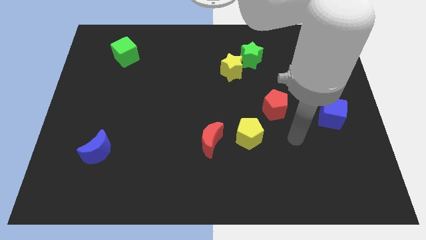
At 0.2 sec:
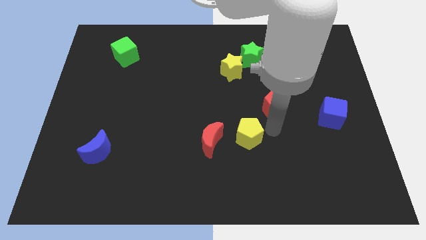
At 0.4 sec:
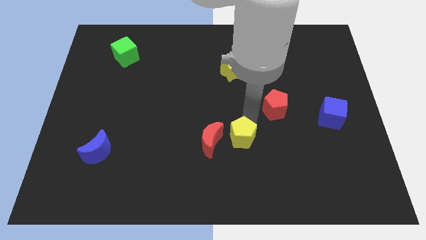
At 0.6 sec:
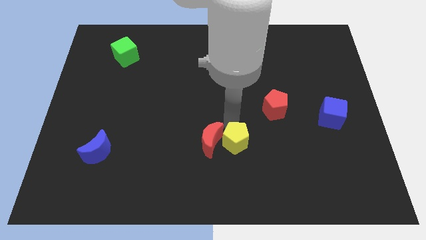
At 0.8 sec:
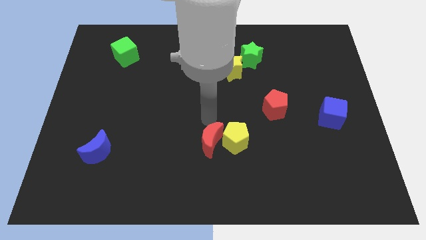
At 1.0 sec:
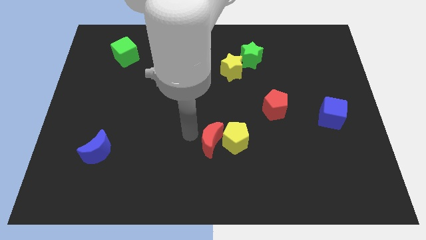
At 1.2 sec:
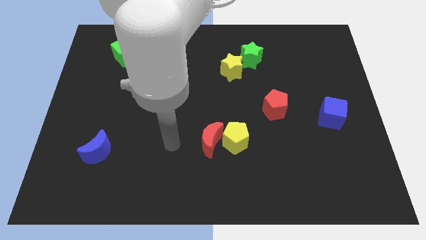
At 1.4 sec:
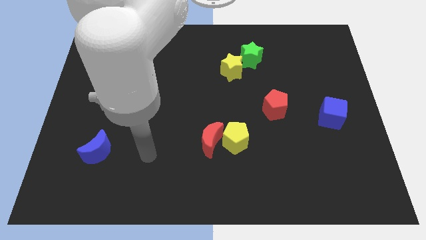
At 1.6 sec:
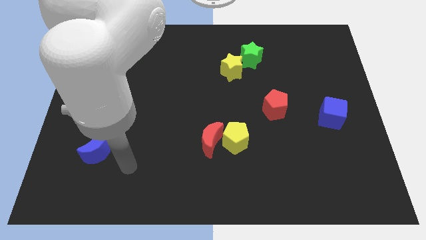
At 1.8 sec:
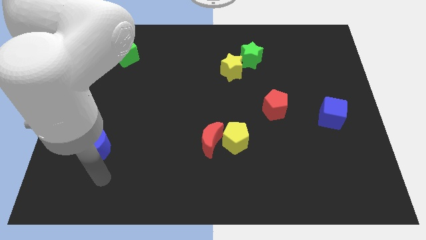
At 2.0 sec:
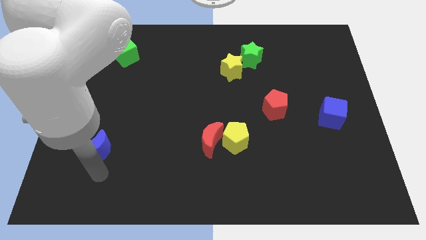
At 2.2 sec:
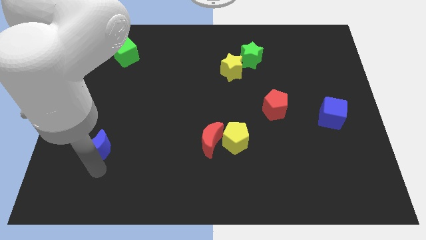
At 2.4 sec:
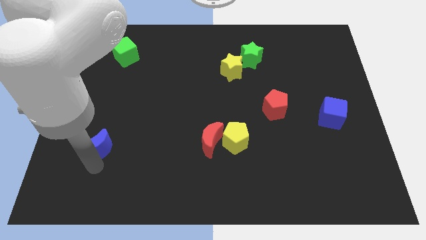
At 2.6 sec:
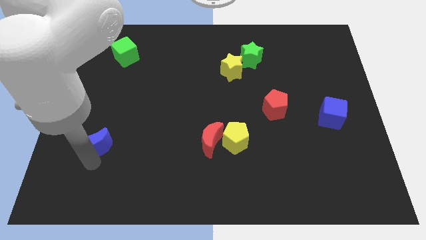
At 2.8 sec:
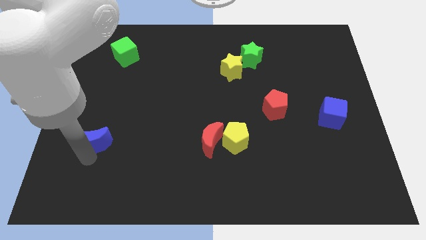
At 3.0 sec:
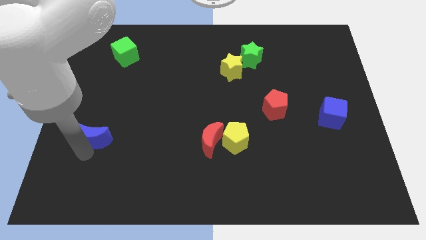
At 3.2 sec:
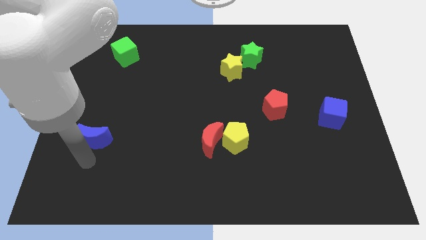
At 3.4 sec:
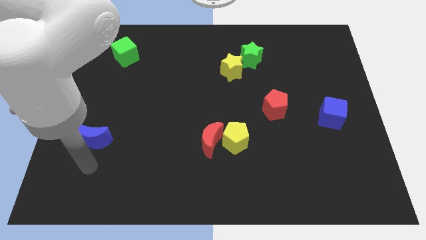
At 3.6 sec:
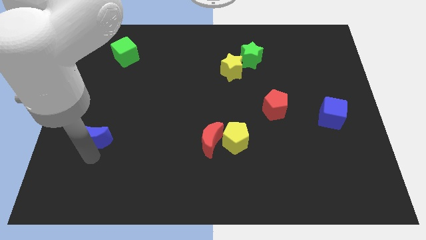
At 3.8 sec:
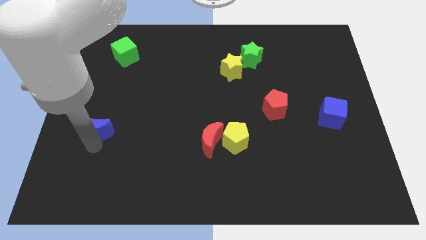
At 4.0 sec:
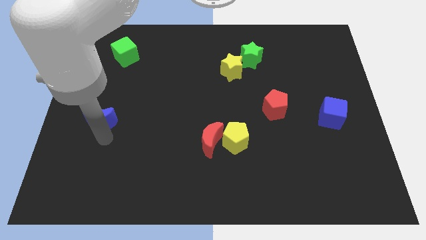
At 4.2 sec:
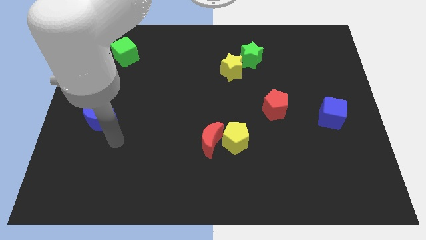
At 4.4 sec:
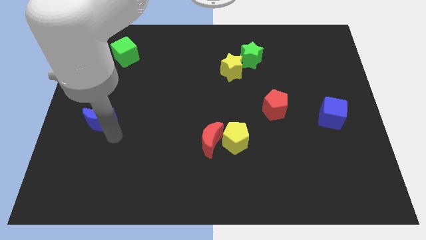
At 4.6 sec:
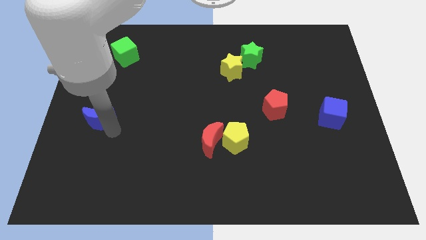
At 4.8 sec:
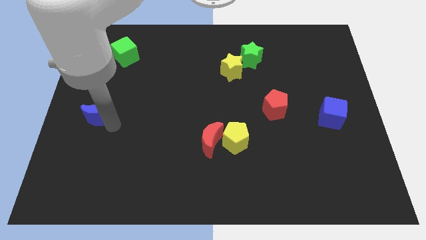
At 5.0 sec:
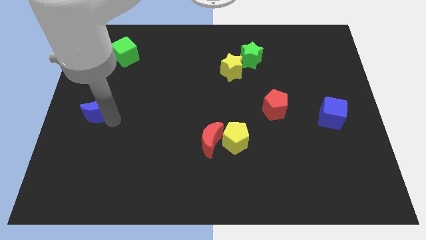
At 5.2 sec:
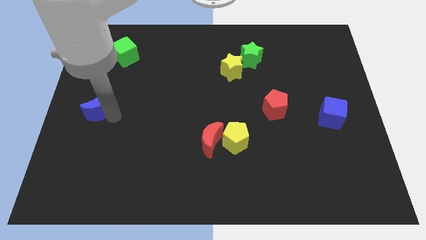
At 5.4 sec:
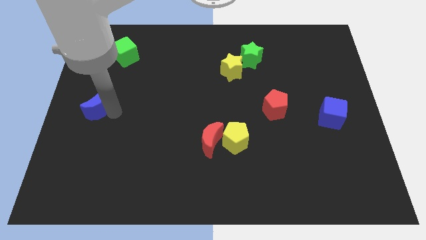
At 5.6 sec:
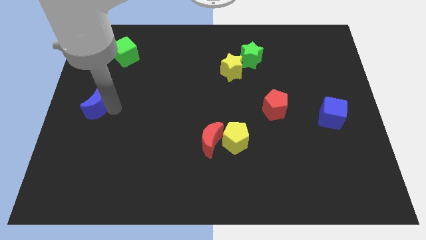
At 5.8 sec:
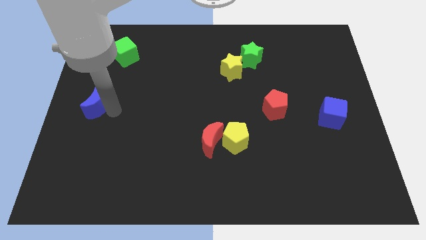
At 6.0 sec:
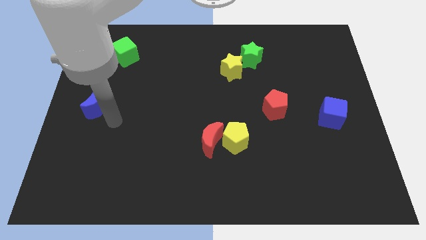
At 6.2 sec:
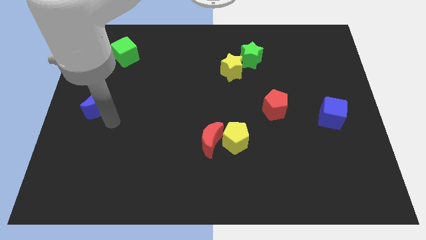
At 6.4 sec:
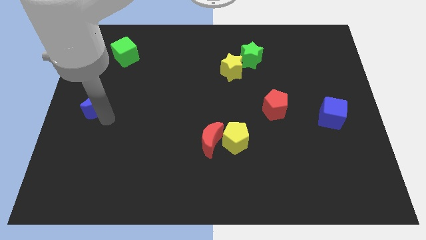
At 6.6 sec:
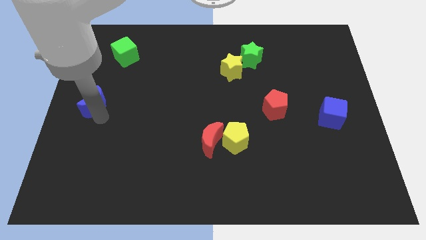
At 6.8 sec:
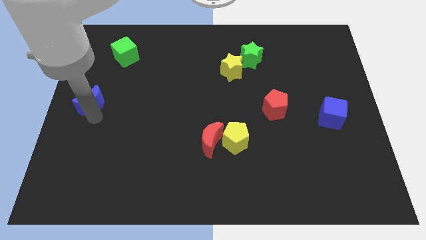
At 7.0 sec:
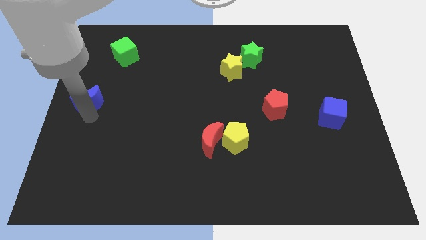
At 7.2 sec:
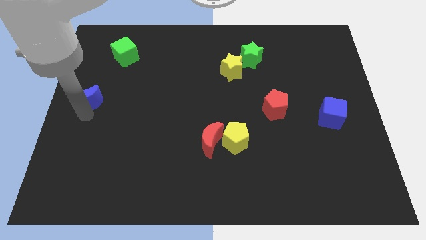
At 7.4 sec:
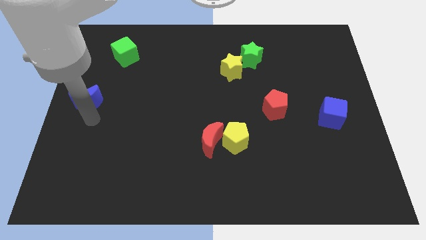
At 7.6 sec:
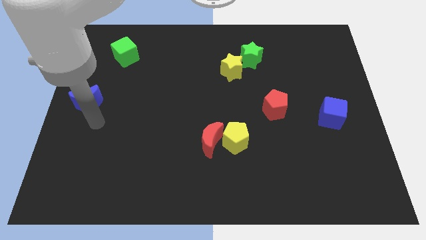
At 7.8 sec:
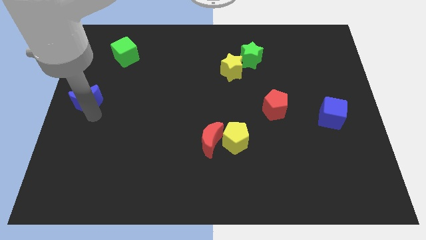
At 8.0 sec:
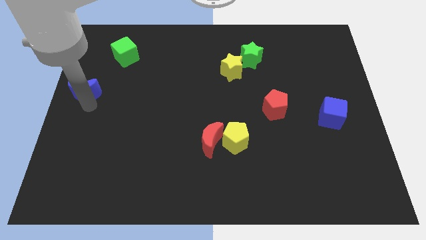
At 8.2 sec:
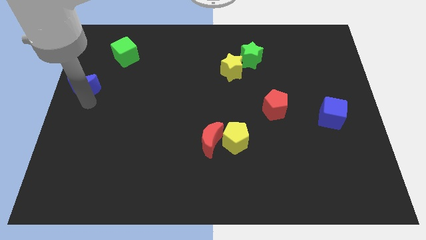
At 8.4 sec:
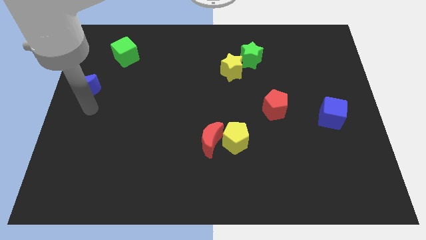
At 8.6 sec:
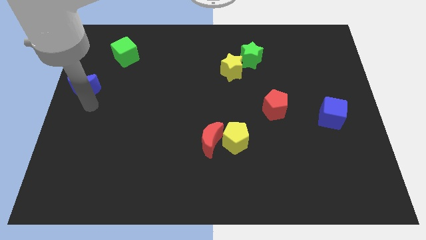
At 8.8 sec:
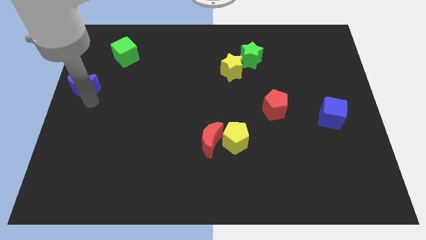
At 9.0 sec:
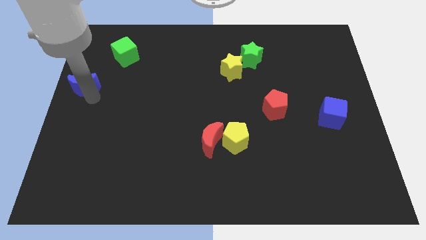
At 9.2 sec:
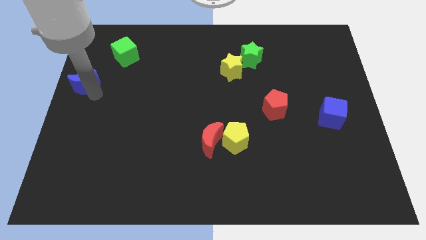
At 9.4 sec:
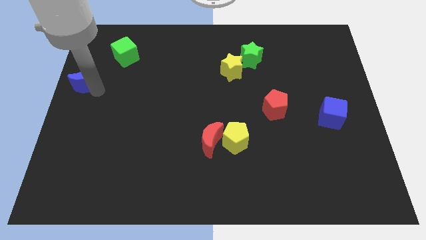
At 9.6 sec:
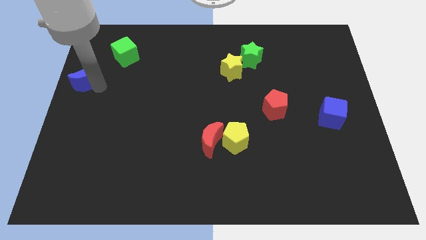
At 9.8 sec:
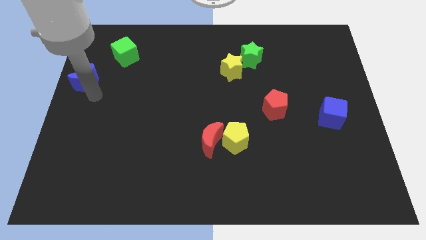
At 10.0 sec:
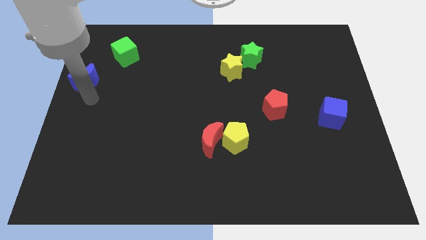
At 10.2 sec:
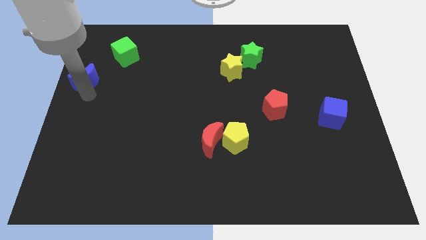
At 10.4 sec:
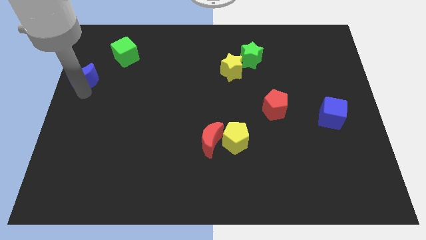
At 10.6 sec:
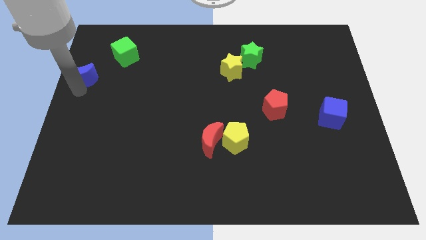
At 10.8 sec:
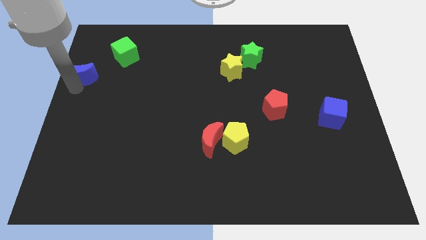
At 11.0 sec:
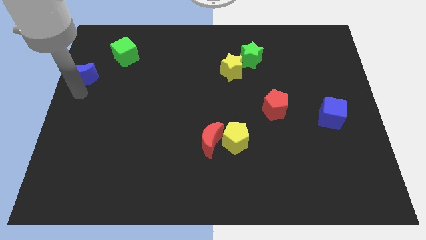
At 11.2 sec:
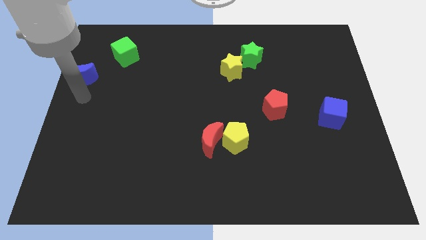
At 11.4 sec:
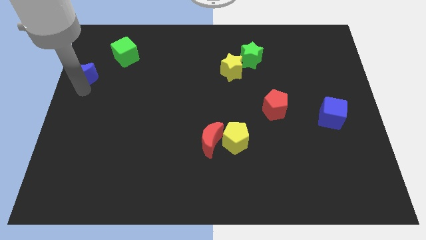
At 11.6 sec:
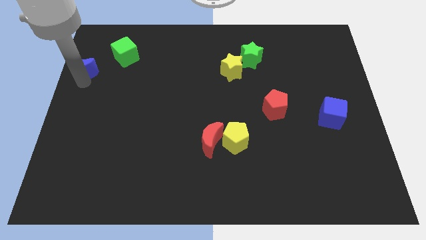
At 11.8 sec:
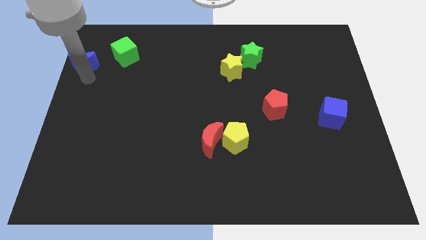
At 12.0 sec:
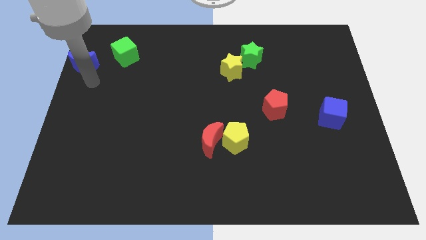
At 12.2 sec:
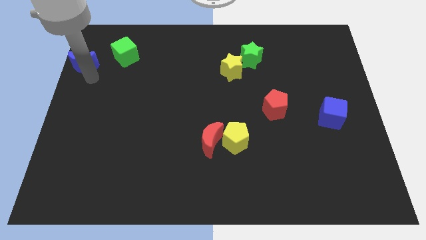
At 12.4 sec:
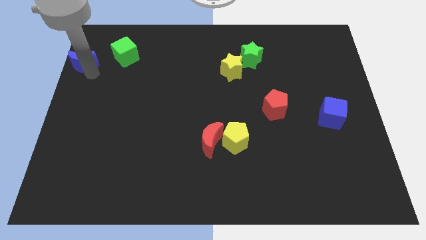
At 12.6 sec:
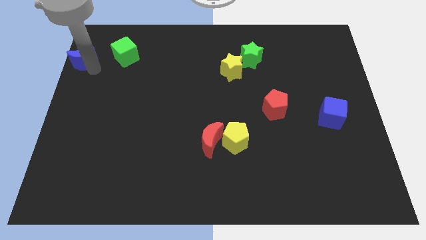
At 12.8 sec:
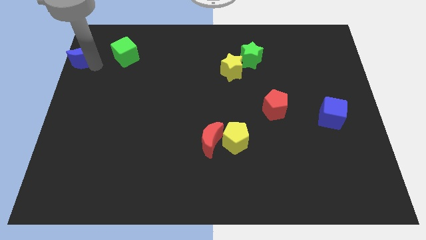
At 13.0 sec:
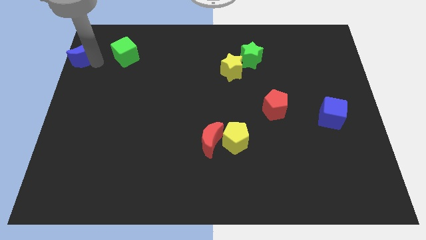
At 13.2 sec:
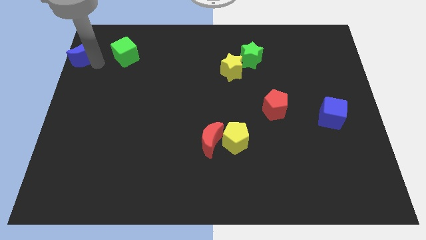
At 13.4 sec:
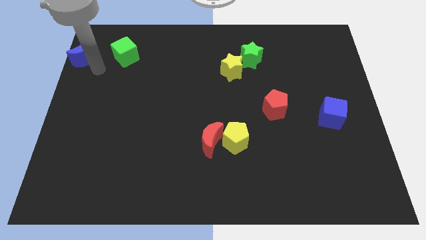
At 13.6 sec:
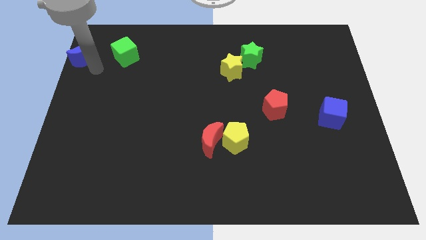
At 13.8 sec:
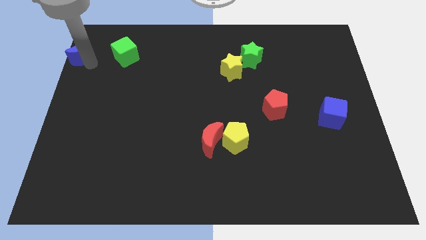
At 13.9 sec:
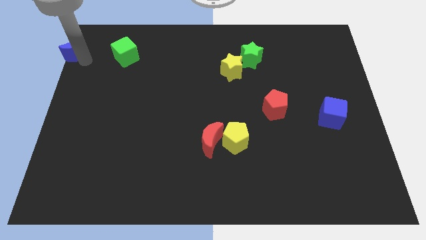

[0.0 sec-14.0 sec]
push the blue moon to the upper left corner

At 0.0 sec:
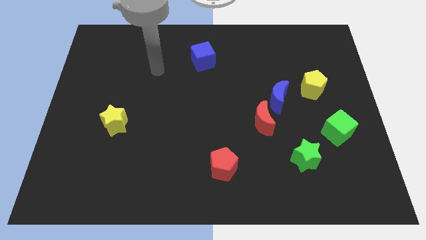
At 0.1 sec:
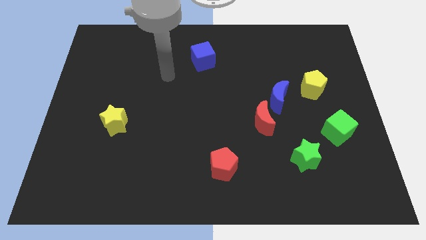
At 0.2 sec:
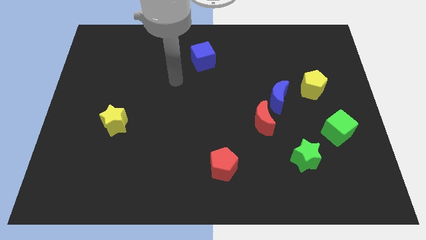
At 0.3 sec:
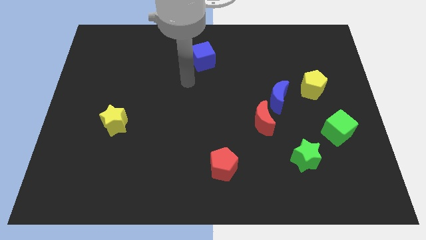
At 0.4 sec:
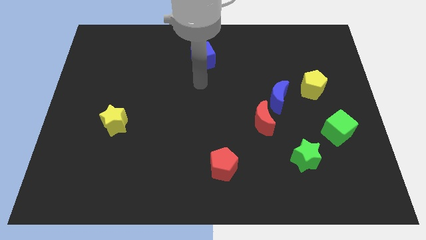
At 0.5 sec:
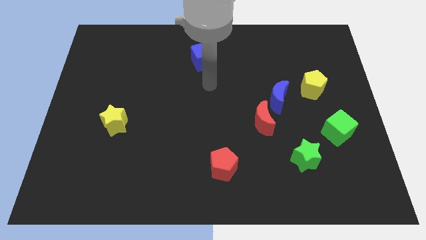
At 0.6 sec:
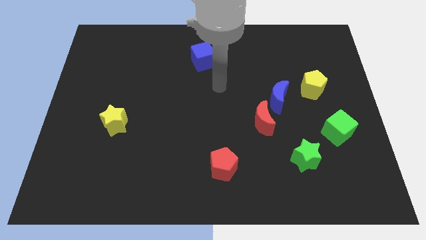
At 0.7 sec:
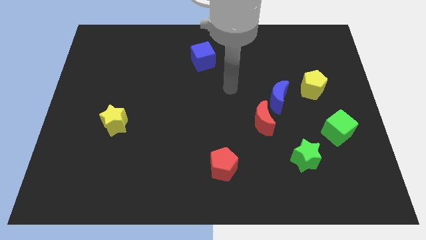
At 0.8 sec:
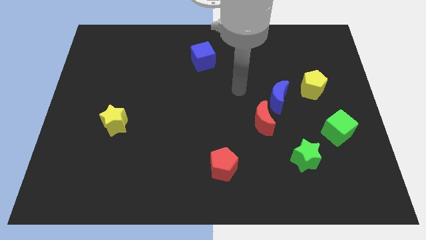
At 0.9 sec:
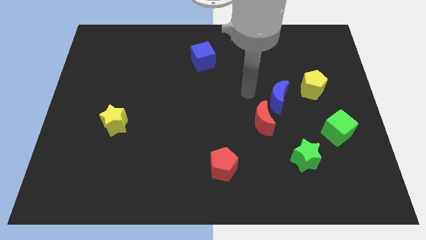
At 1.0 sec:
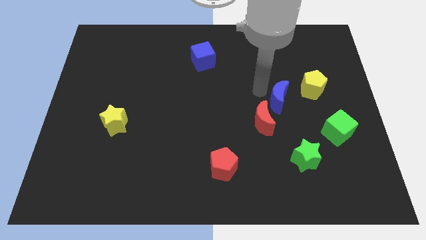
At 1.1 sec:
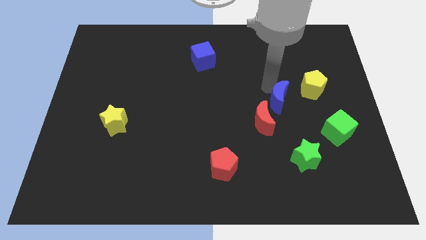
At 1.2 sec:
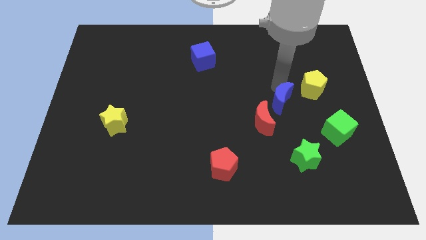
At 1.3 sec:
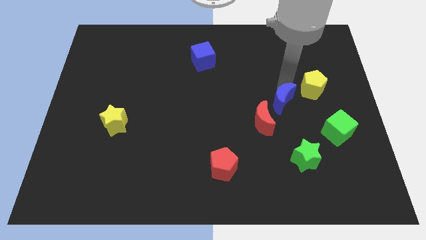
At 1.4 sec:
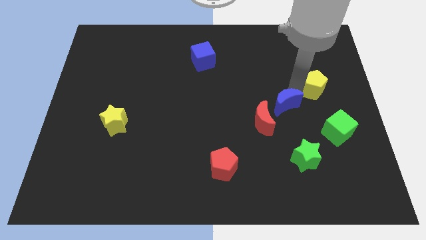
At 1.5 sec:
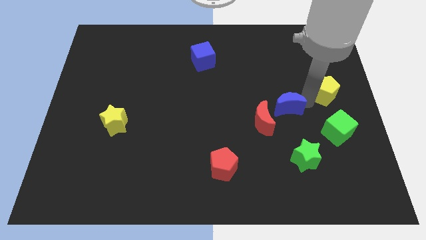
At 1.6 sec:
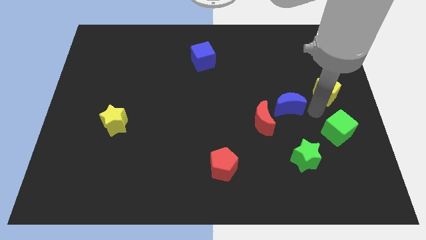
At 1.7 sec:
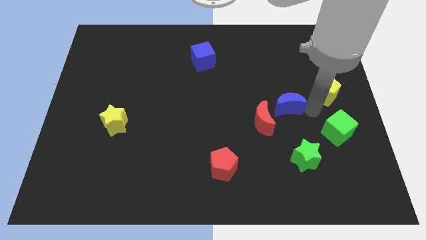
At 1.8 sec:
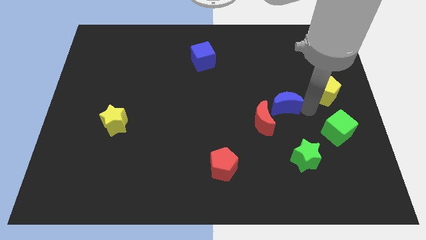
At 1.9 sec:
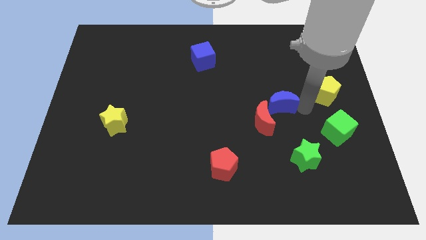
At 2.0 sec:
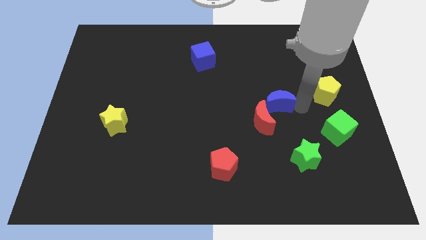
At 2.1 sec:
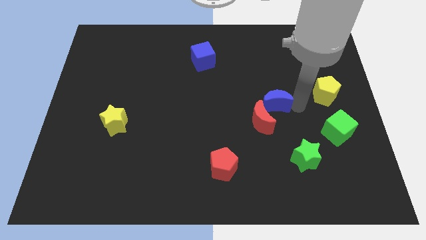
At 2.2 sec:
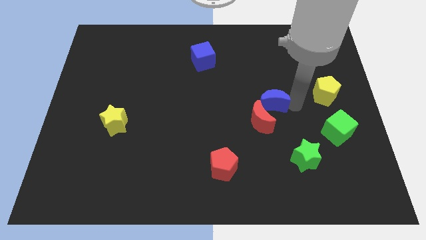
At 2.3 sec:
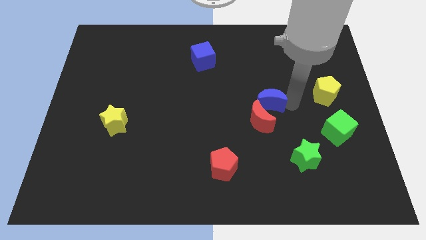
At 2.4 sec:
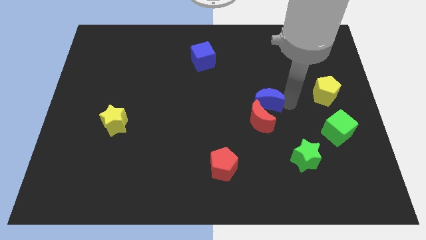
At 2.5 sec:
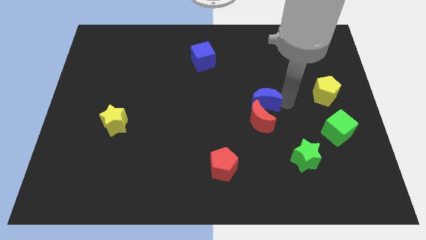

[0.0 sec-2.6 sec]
put the blue moon to the middle of the board
